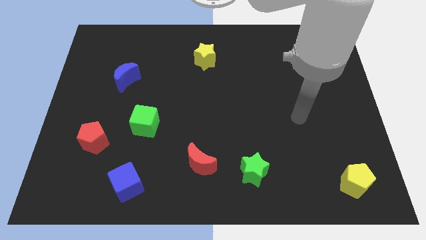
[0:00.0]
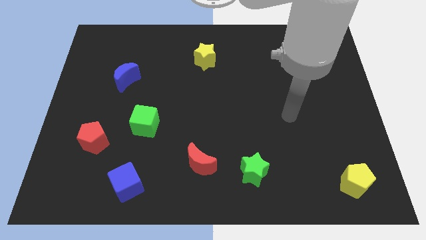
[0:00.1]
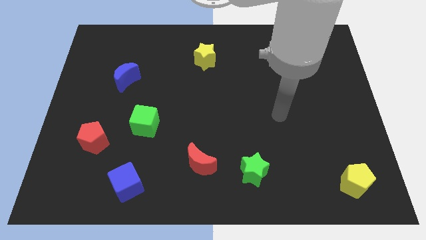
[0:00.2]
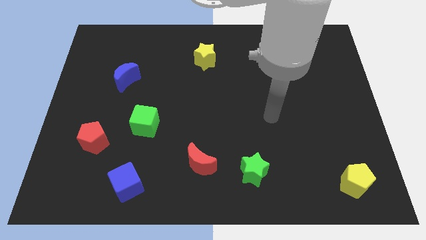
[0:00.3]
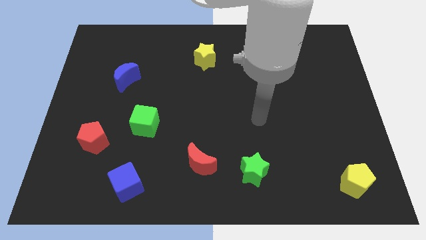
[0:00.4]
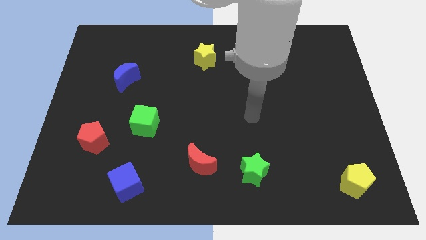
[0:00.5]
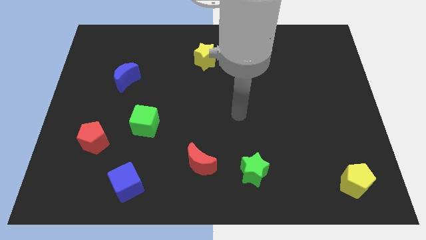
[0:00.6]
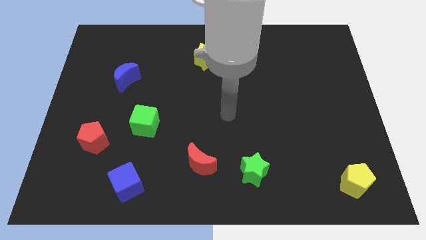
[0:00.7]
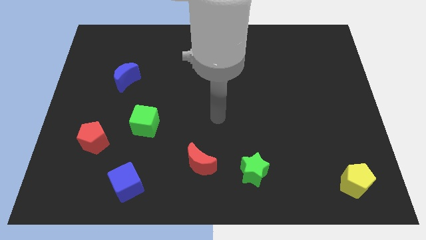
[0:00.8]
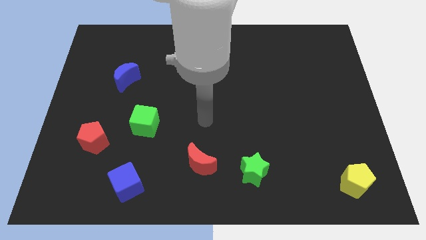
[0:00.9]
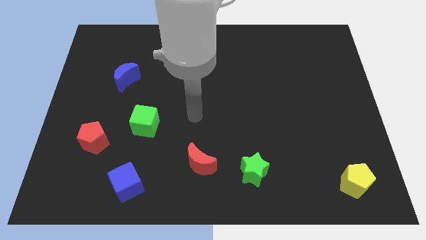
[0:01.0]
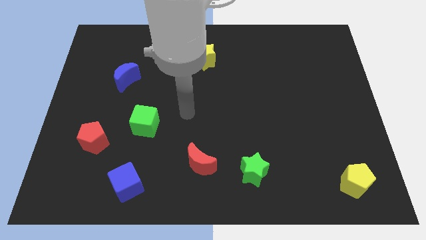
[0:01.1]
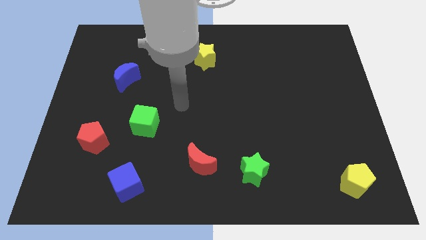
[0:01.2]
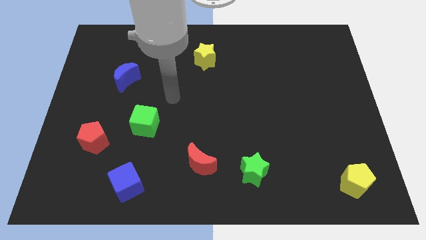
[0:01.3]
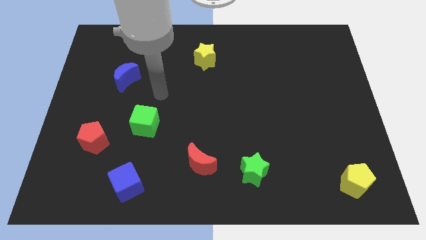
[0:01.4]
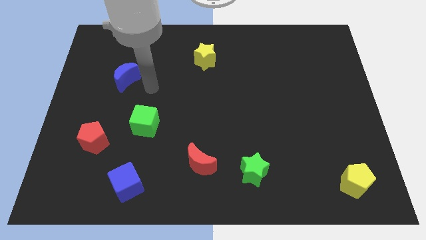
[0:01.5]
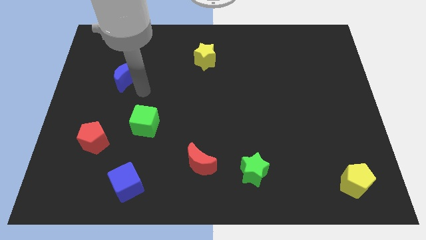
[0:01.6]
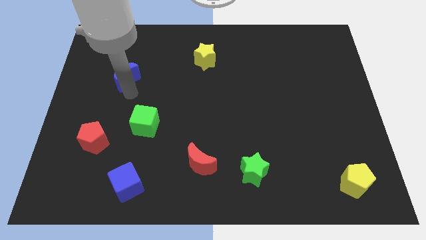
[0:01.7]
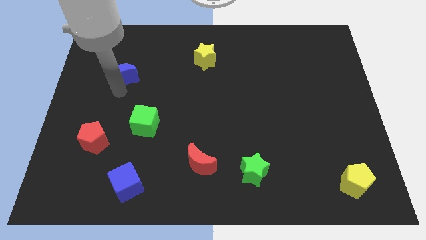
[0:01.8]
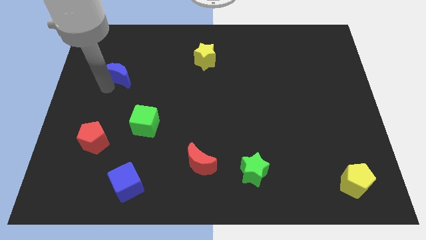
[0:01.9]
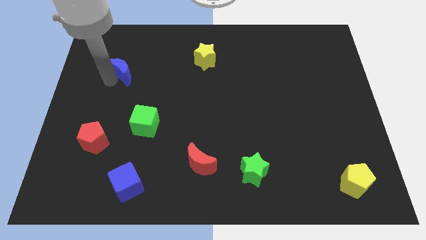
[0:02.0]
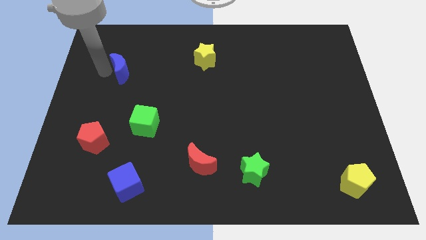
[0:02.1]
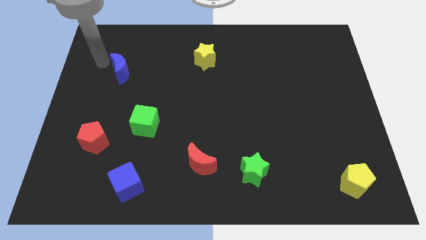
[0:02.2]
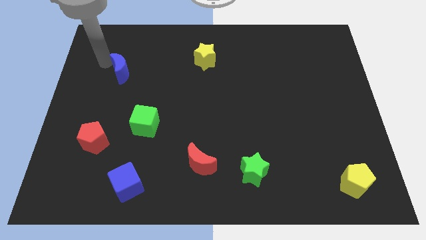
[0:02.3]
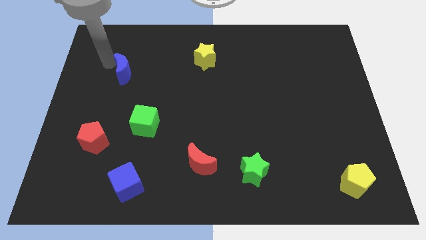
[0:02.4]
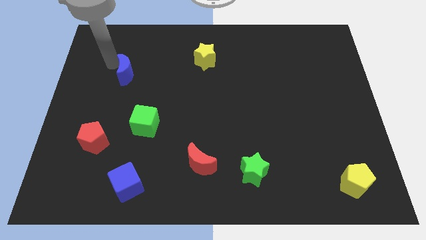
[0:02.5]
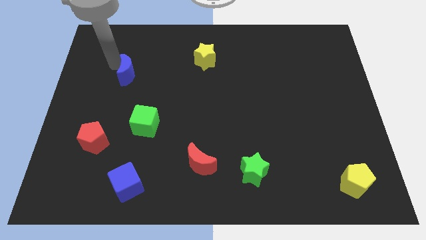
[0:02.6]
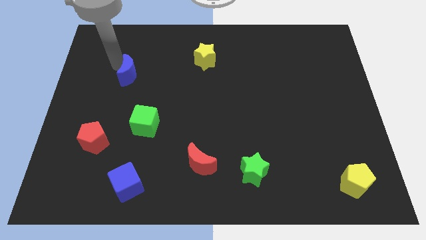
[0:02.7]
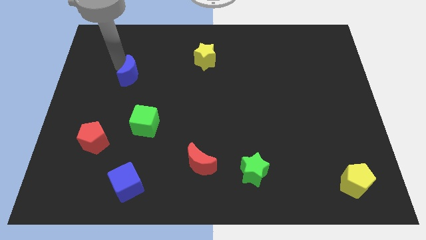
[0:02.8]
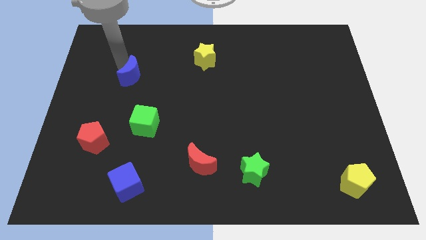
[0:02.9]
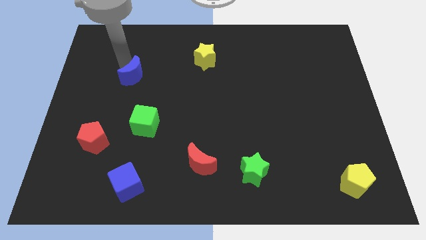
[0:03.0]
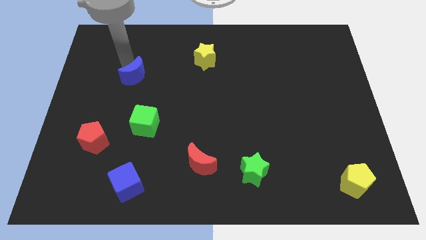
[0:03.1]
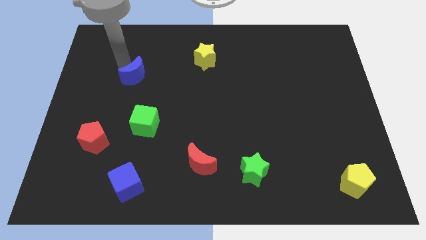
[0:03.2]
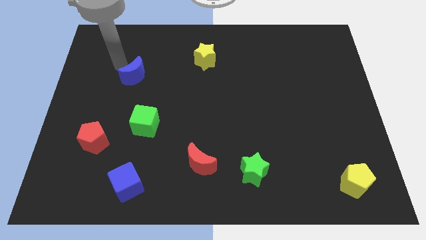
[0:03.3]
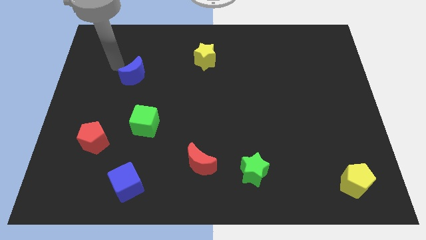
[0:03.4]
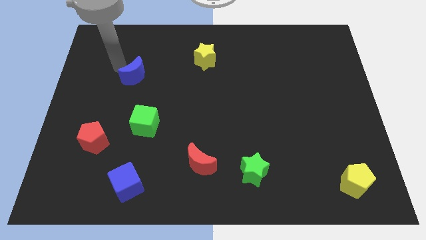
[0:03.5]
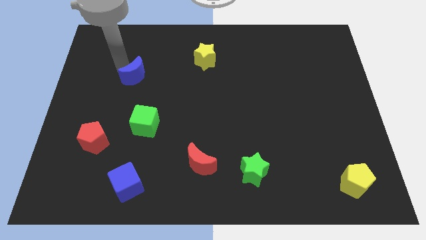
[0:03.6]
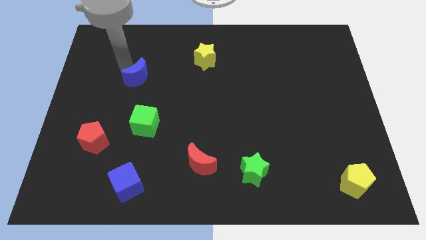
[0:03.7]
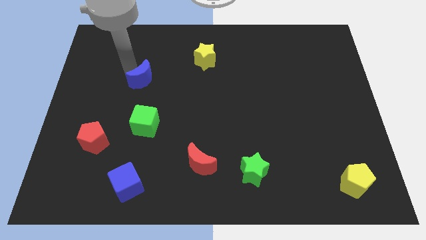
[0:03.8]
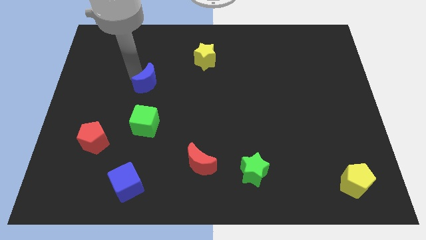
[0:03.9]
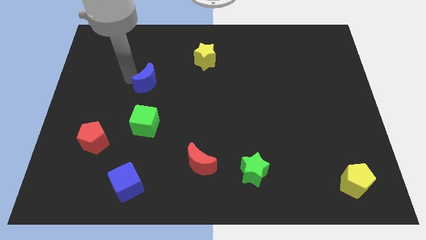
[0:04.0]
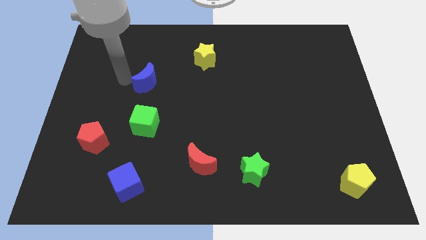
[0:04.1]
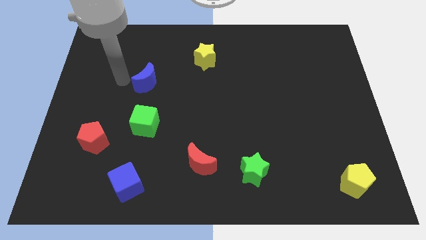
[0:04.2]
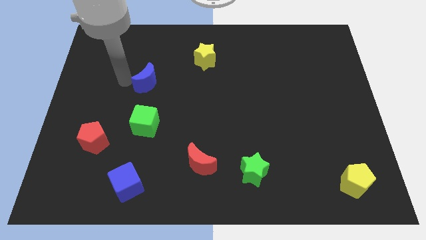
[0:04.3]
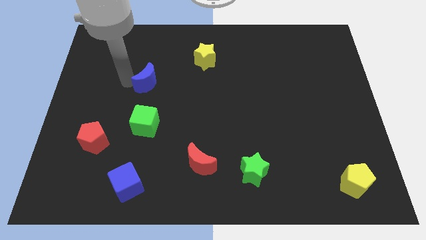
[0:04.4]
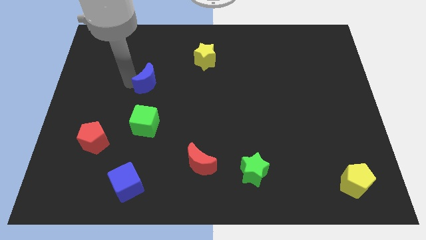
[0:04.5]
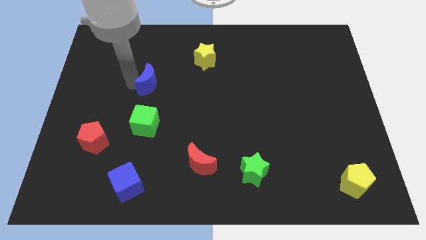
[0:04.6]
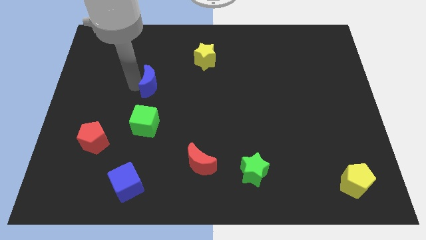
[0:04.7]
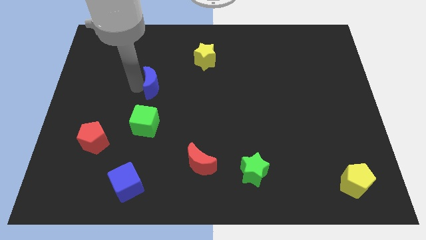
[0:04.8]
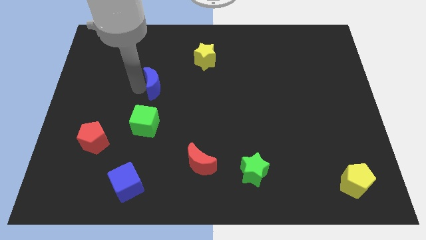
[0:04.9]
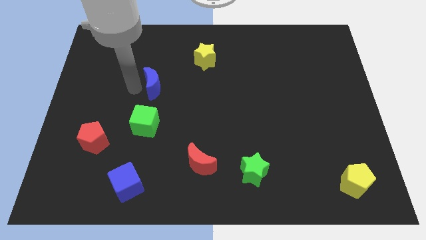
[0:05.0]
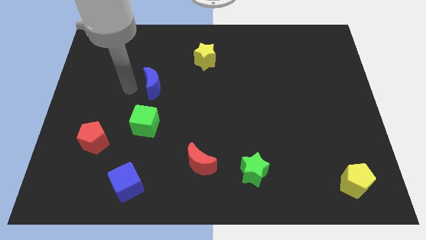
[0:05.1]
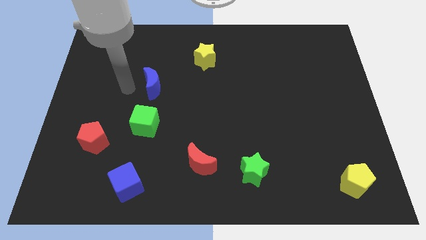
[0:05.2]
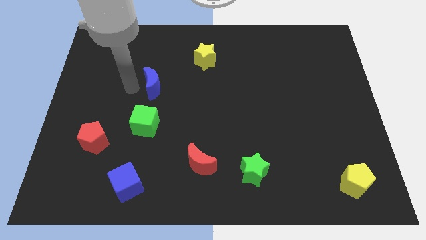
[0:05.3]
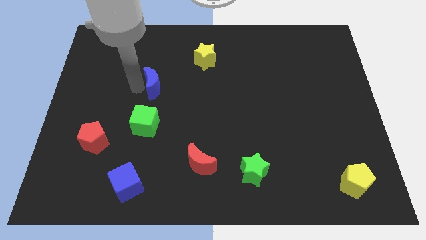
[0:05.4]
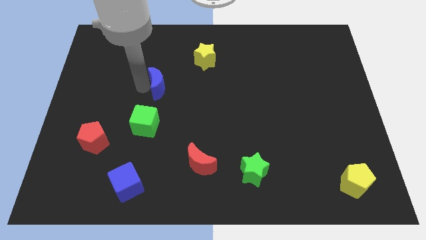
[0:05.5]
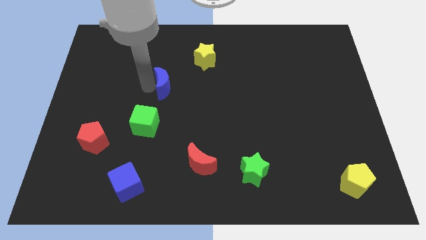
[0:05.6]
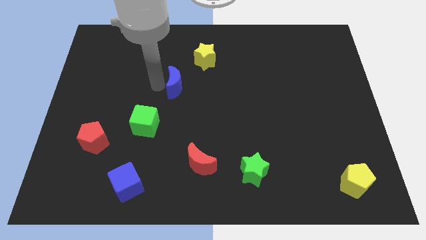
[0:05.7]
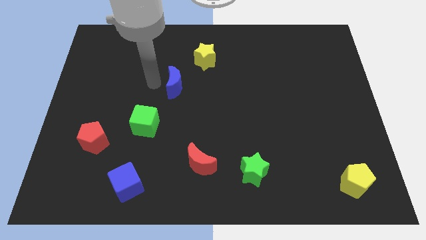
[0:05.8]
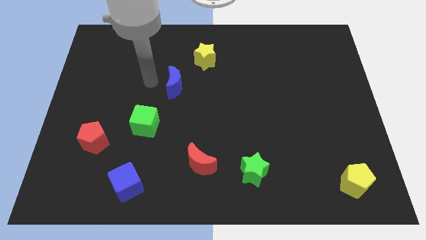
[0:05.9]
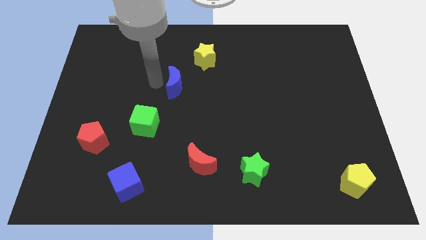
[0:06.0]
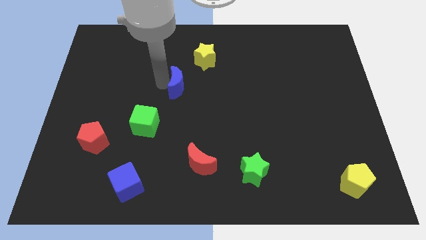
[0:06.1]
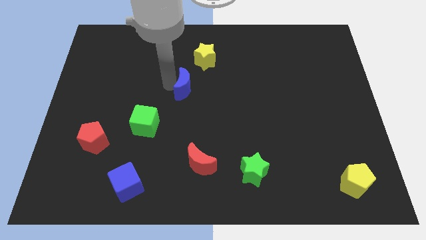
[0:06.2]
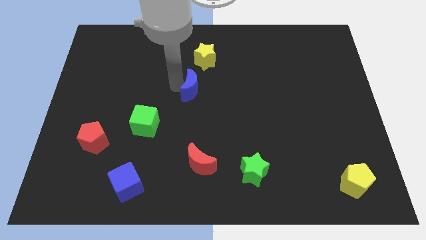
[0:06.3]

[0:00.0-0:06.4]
slide the blue moon to the bottom of the yellow star
